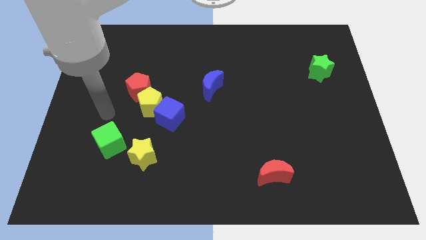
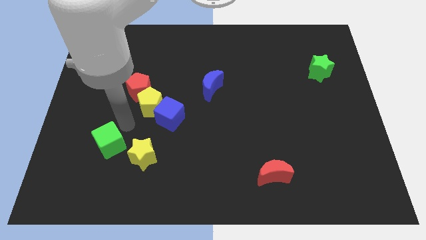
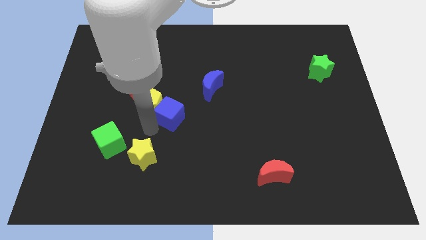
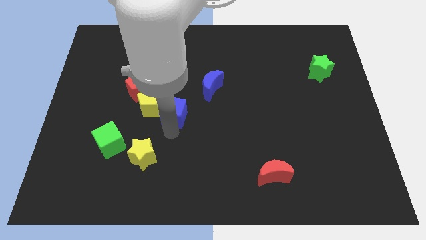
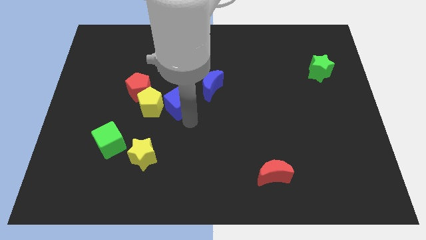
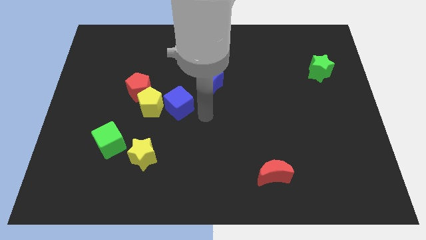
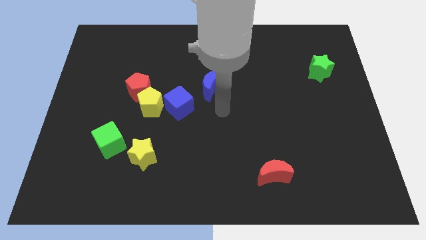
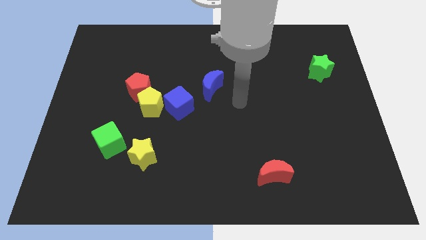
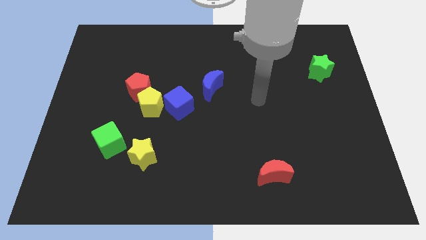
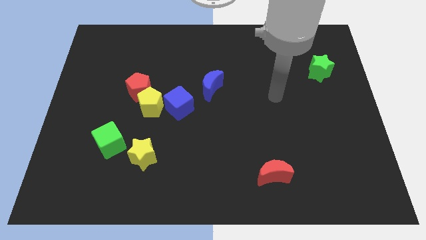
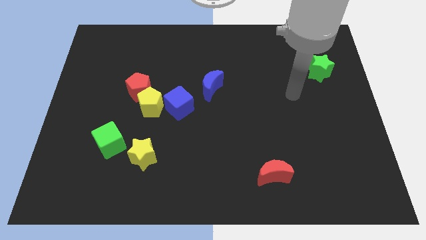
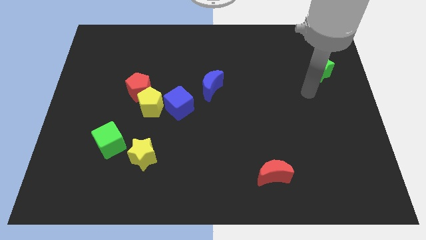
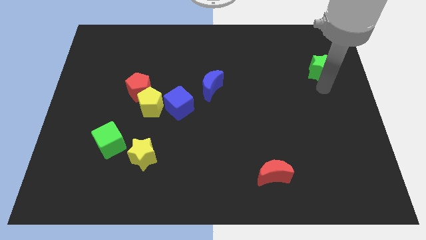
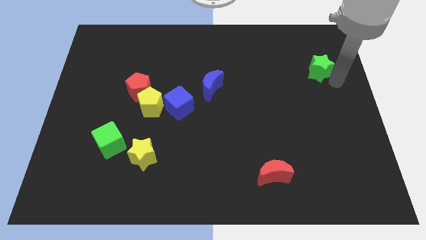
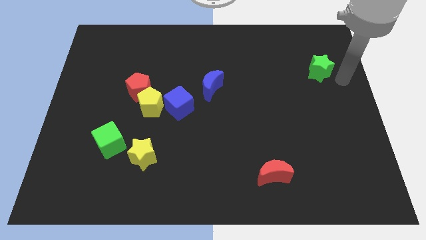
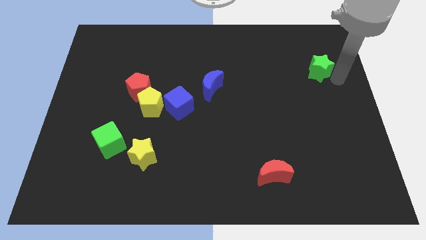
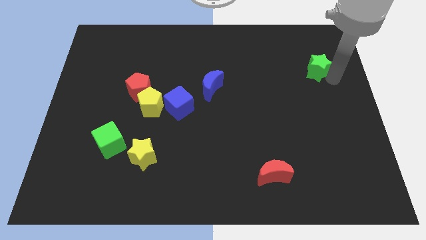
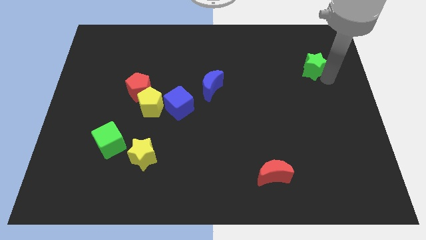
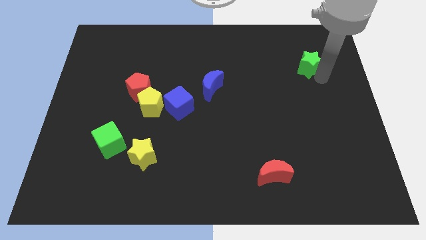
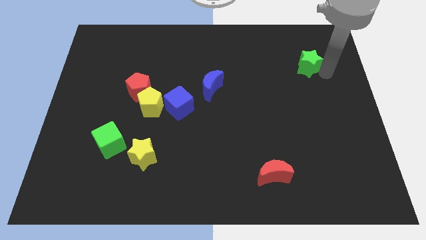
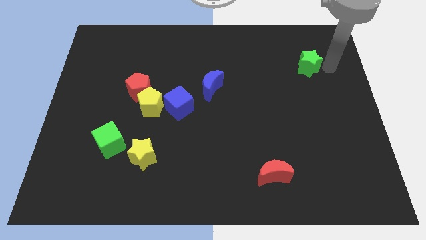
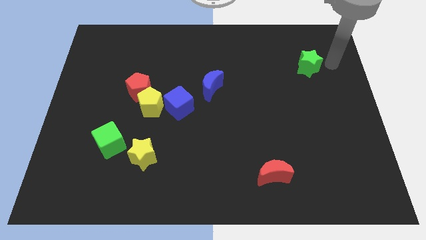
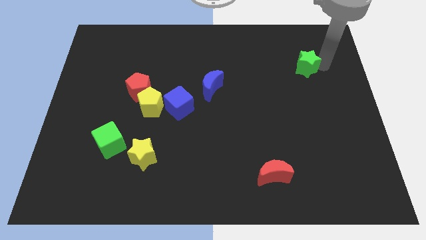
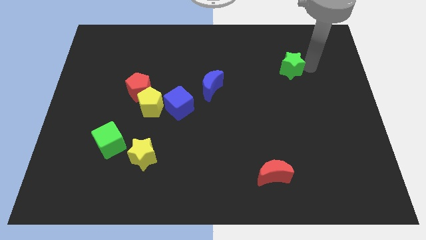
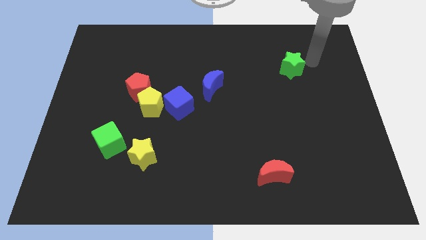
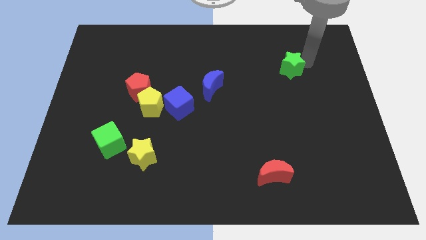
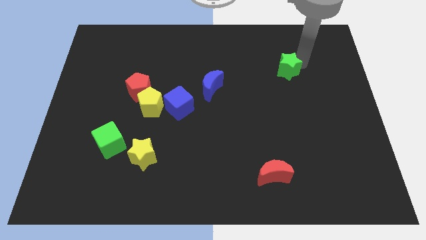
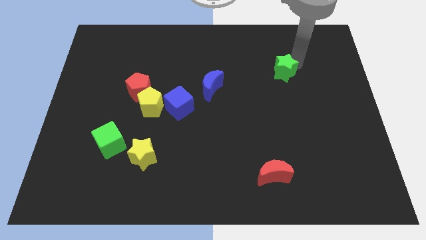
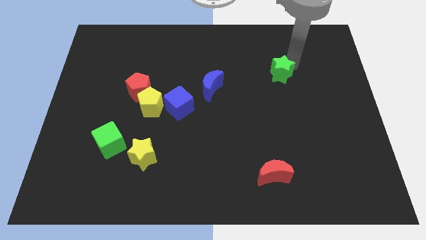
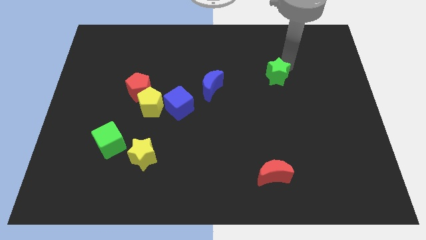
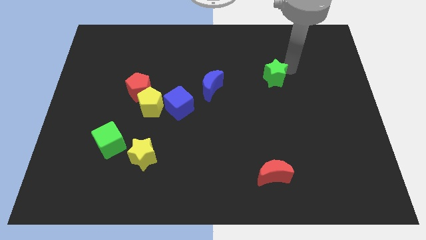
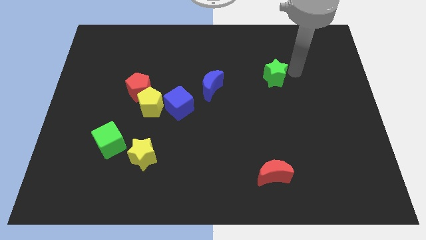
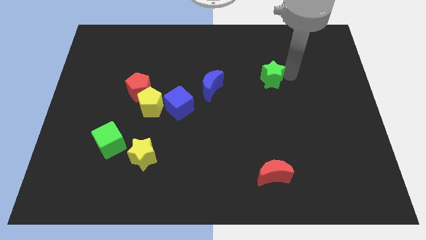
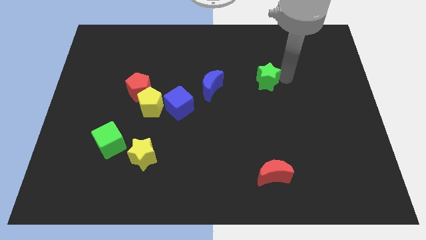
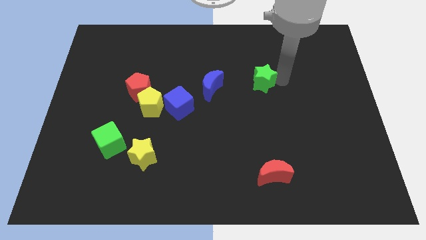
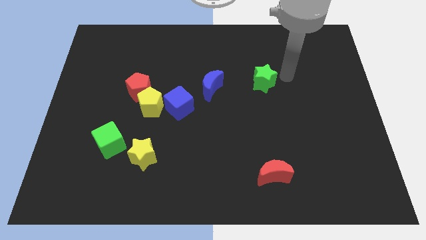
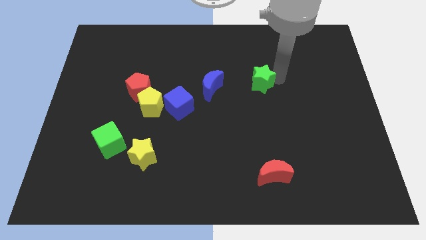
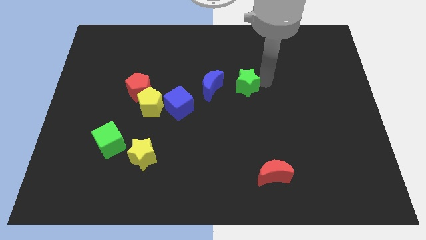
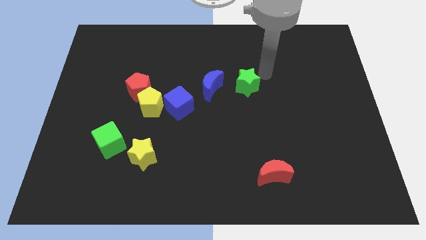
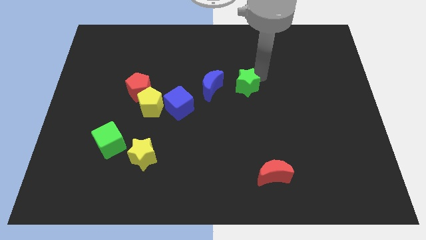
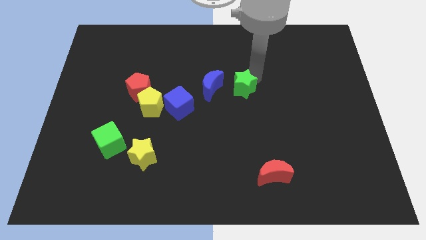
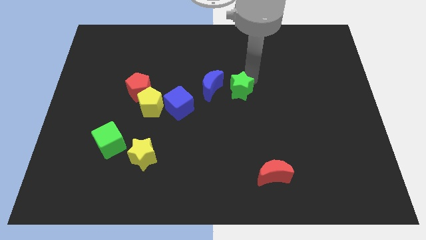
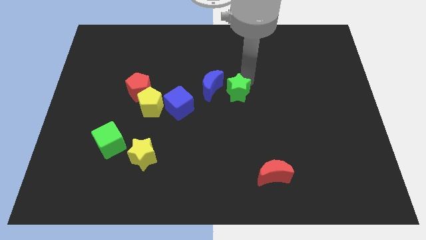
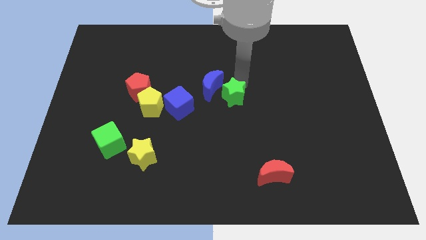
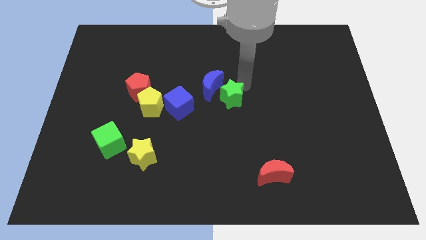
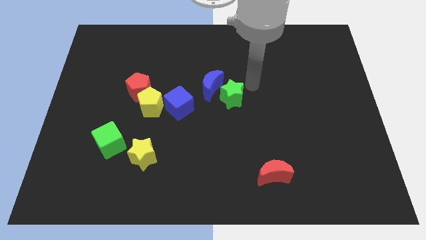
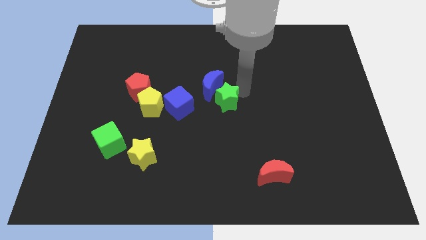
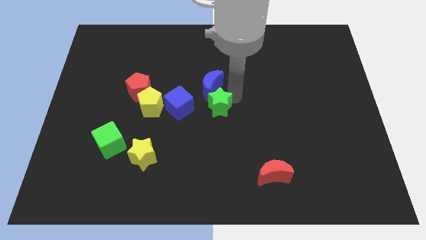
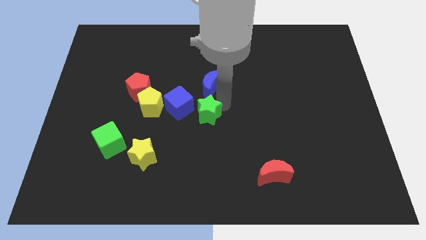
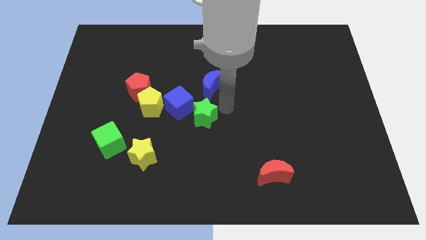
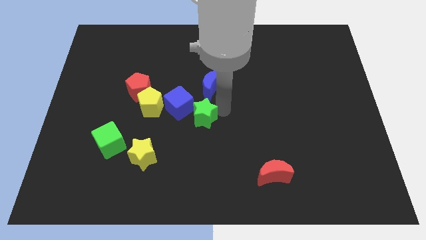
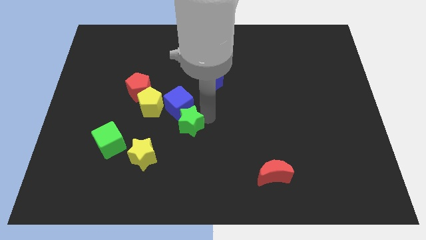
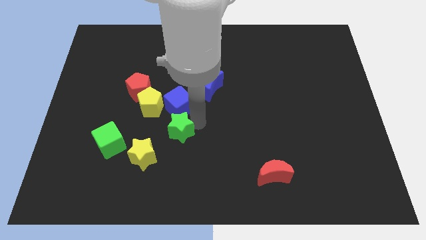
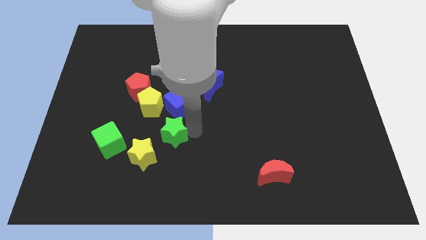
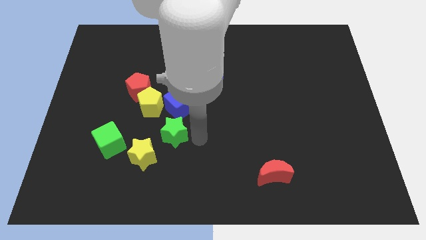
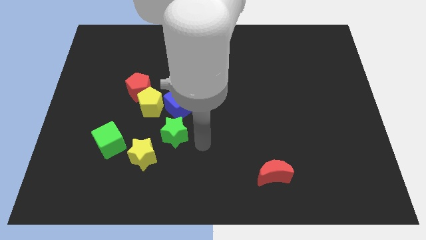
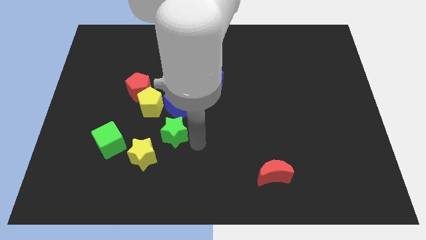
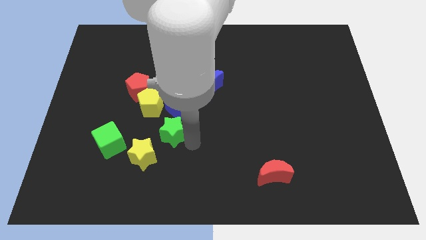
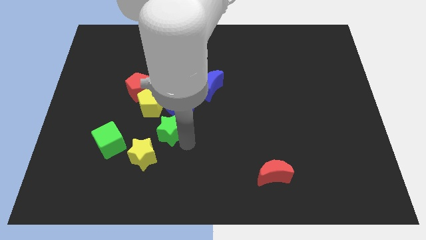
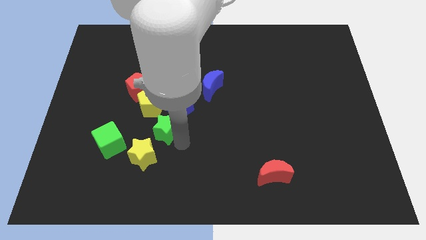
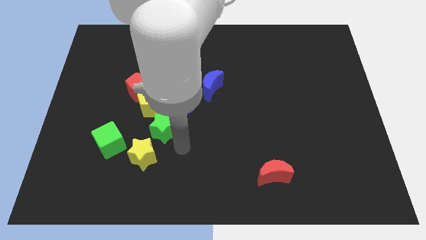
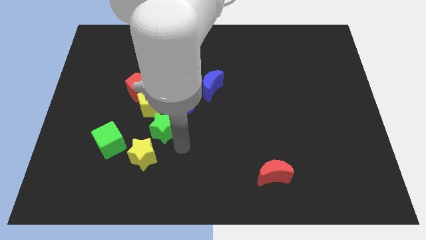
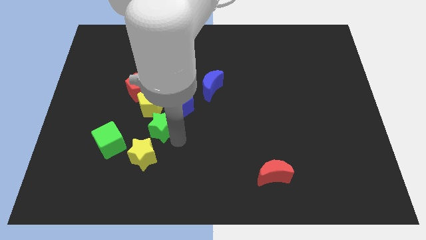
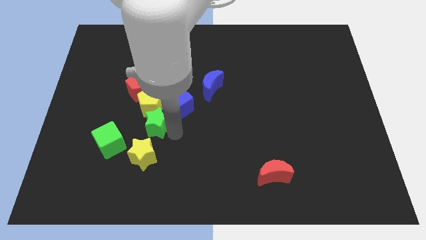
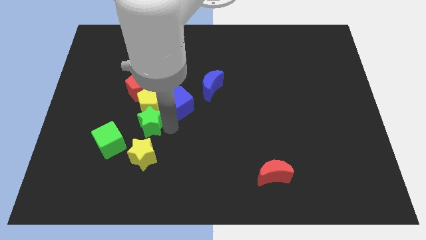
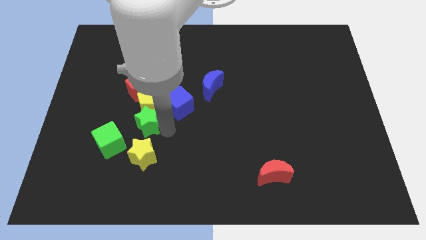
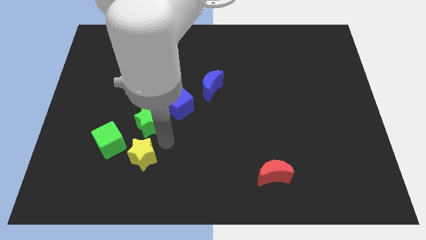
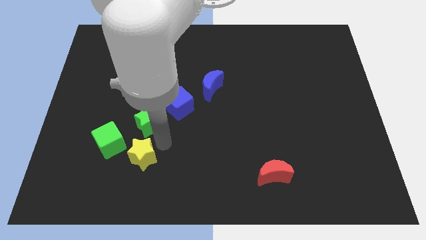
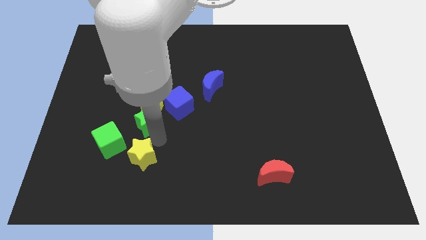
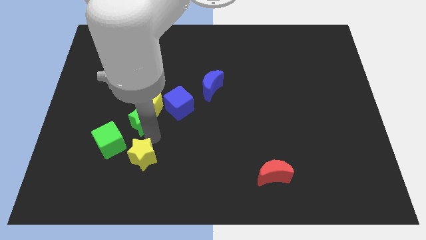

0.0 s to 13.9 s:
move the green star to the left side of the blue cube
